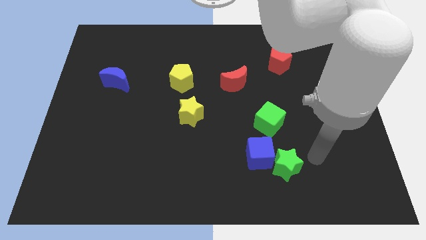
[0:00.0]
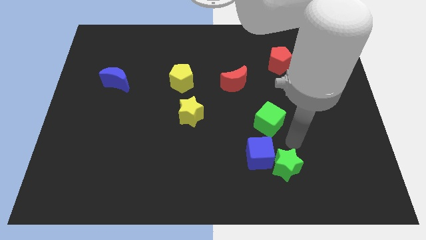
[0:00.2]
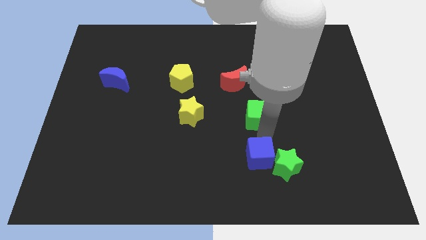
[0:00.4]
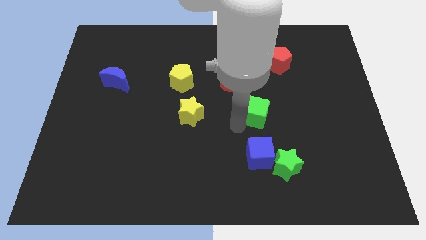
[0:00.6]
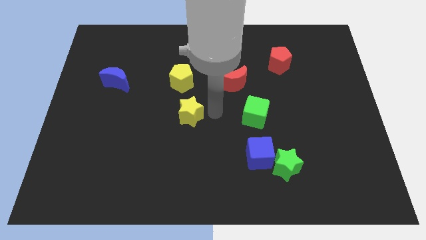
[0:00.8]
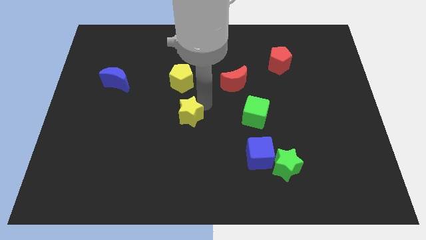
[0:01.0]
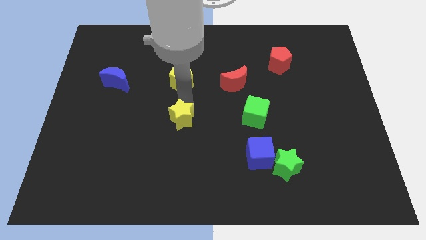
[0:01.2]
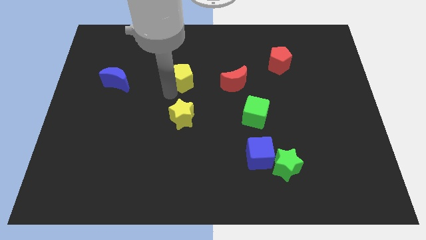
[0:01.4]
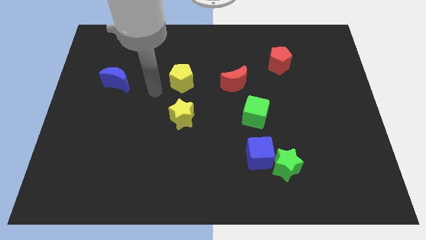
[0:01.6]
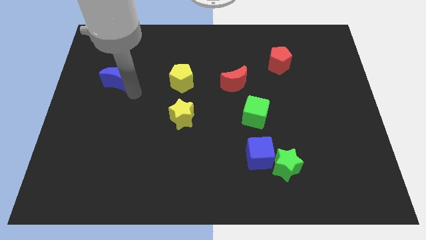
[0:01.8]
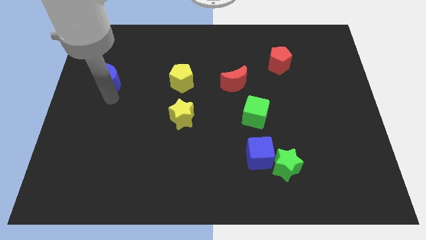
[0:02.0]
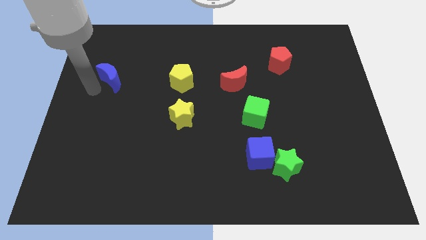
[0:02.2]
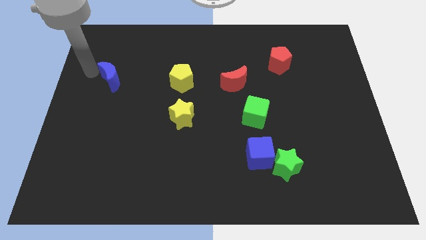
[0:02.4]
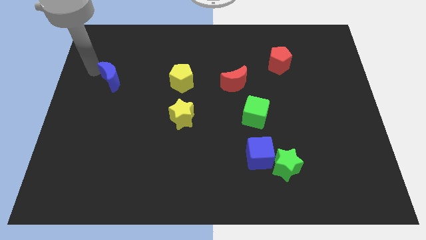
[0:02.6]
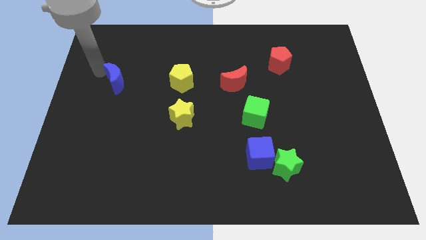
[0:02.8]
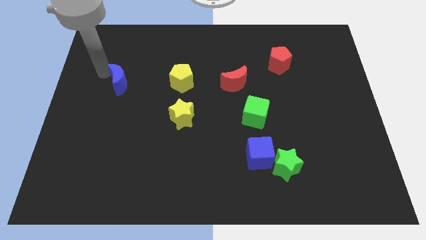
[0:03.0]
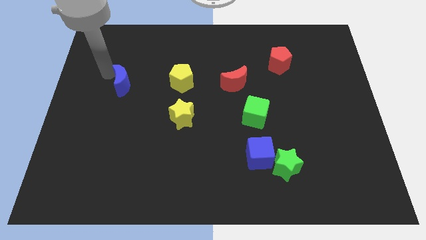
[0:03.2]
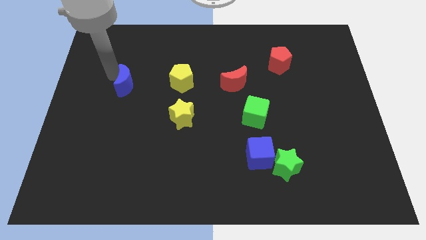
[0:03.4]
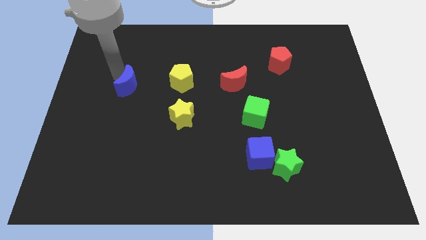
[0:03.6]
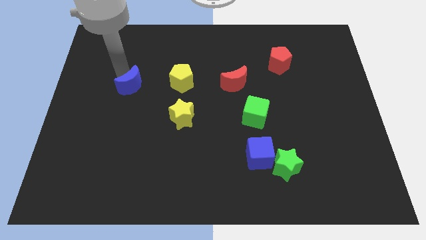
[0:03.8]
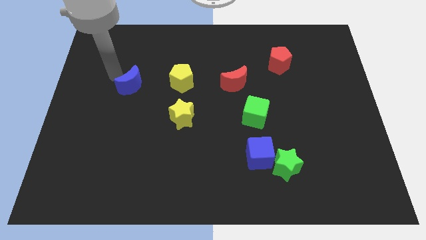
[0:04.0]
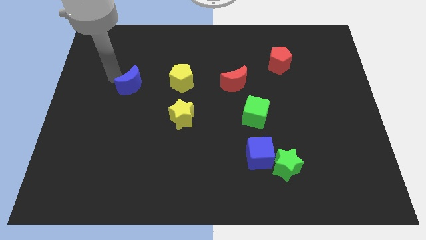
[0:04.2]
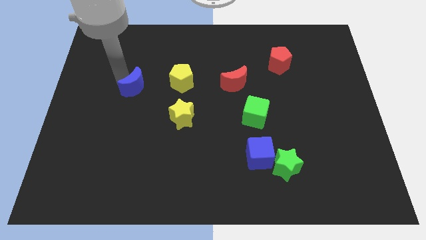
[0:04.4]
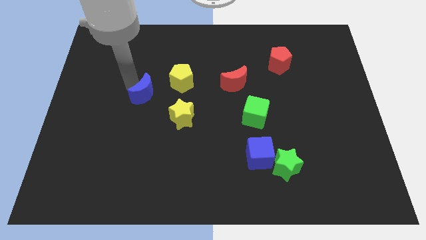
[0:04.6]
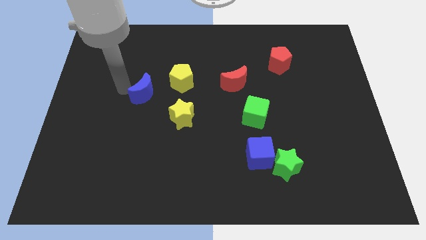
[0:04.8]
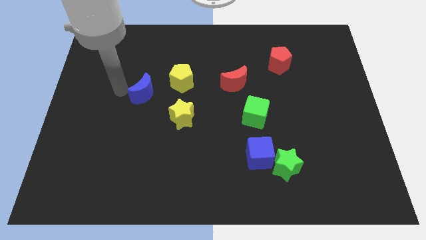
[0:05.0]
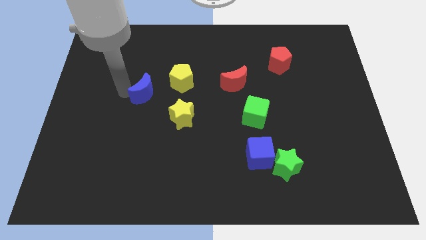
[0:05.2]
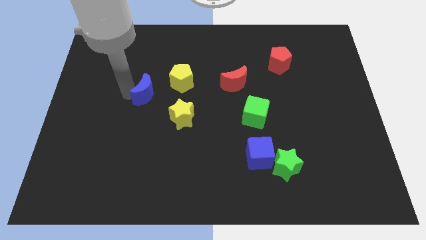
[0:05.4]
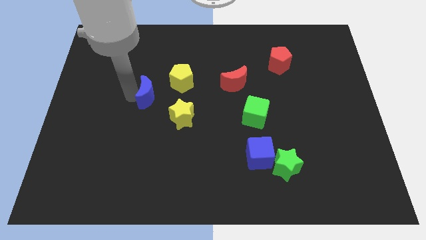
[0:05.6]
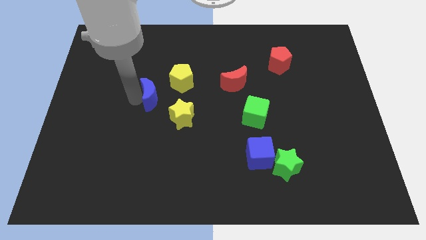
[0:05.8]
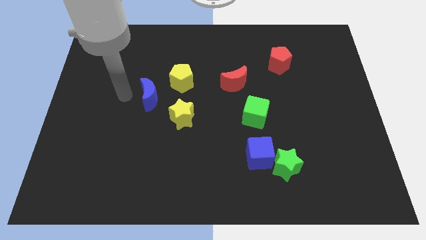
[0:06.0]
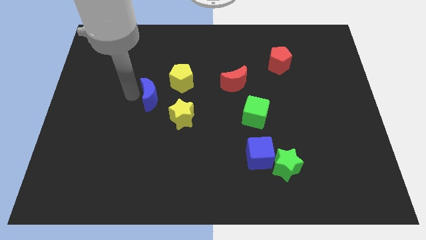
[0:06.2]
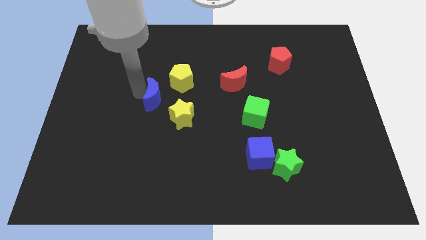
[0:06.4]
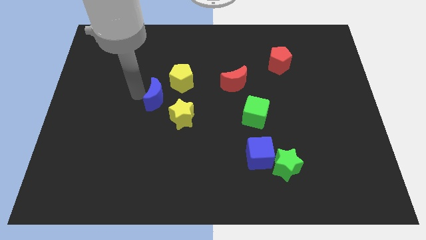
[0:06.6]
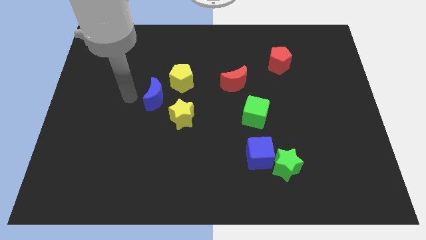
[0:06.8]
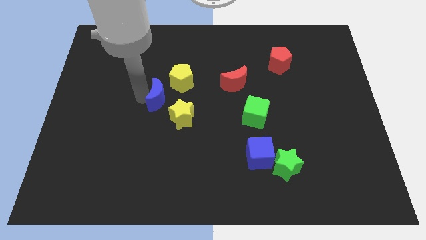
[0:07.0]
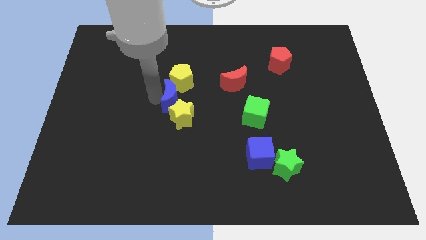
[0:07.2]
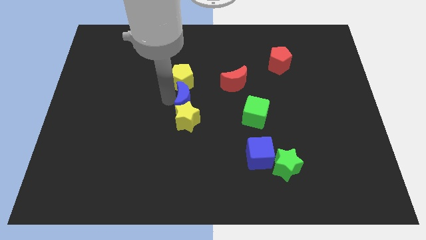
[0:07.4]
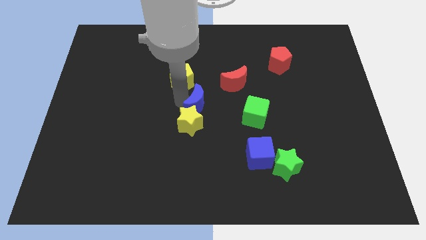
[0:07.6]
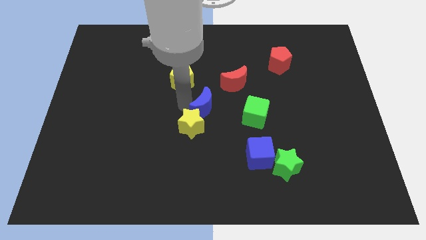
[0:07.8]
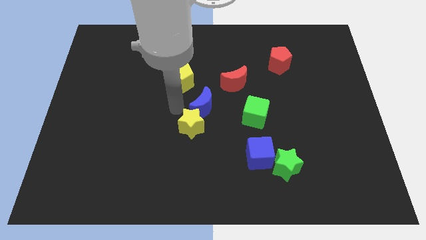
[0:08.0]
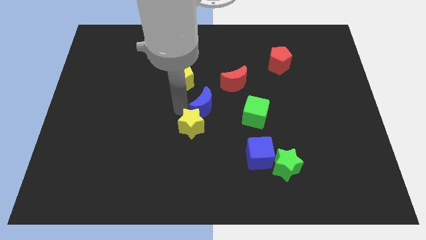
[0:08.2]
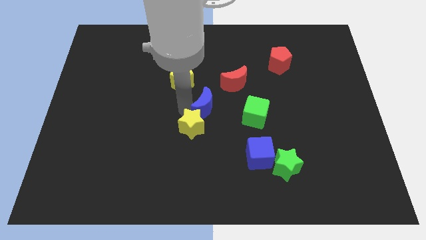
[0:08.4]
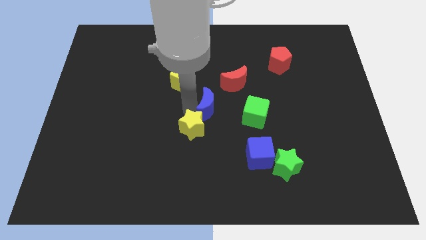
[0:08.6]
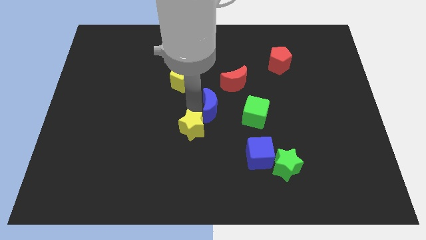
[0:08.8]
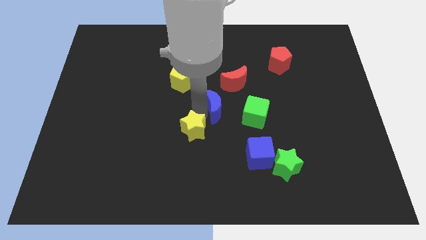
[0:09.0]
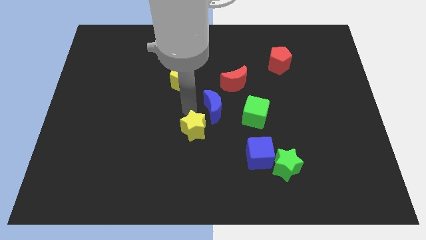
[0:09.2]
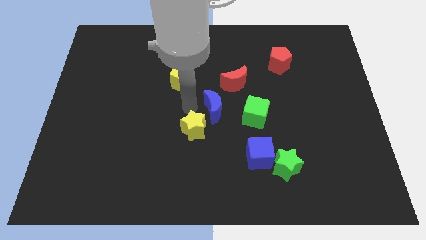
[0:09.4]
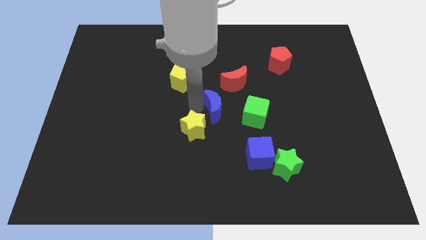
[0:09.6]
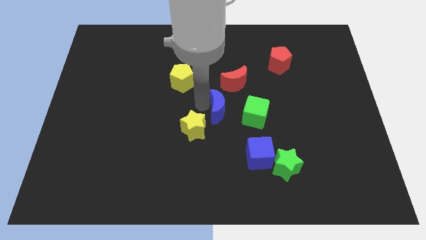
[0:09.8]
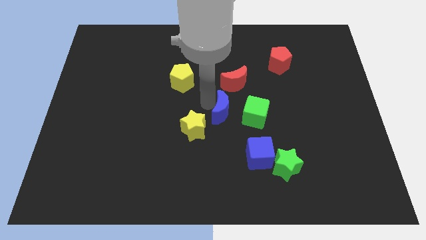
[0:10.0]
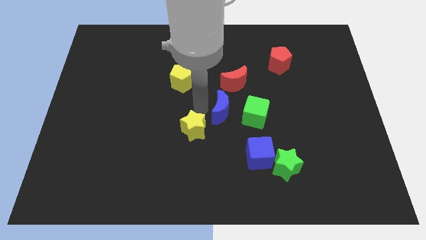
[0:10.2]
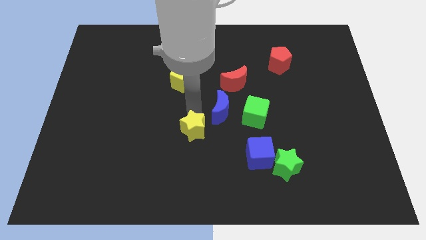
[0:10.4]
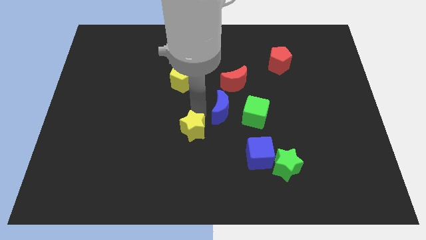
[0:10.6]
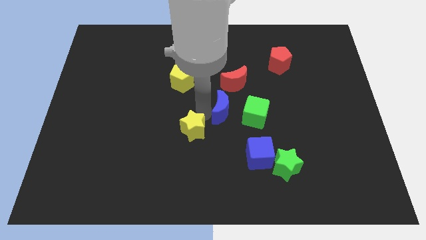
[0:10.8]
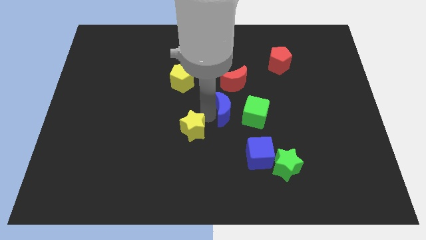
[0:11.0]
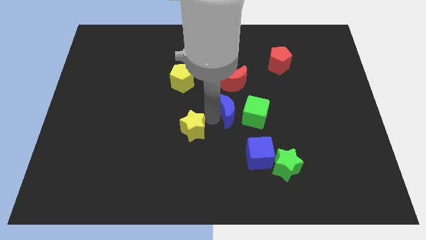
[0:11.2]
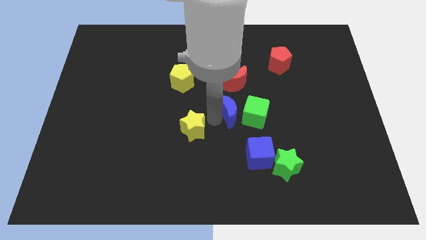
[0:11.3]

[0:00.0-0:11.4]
push the blue moon close to the green cube

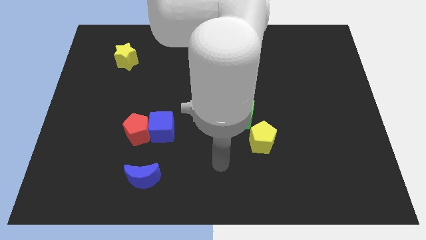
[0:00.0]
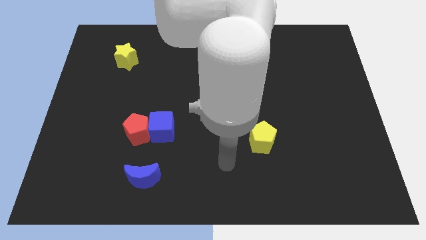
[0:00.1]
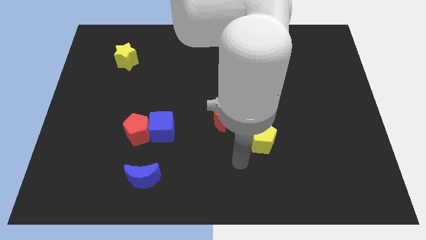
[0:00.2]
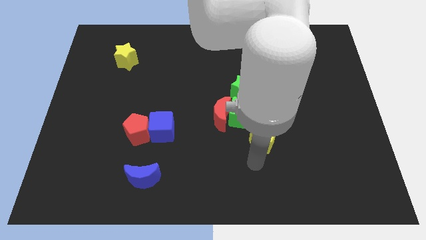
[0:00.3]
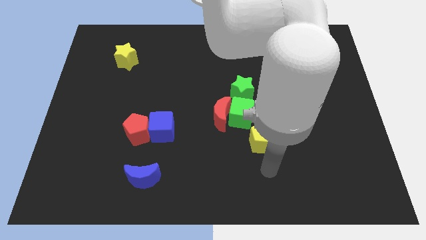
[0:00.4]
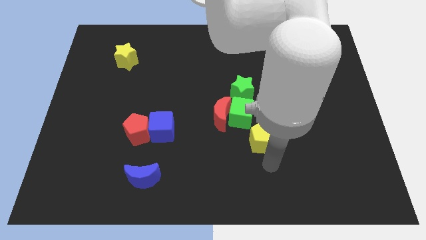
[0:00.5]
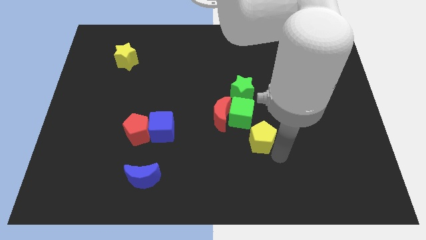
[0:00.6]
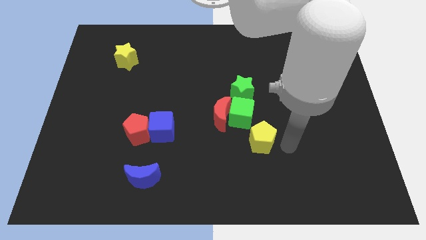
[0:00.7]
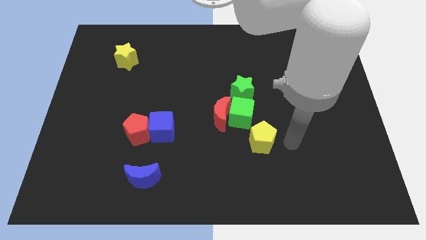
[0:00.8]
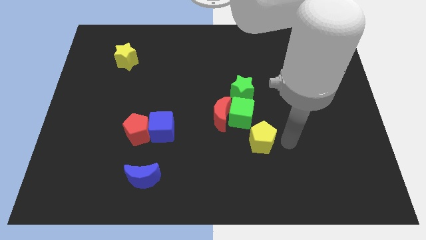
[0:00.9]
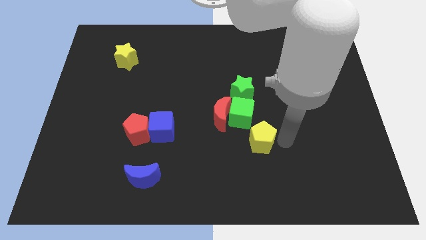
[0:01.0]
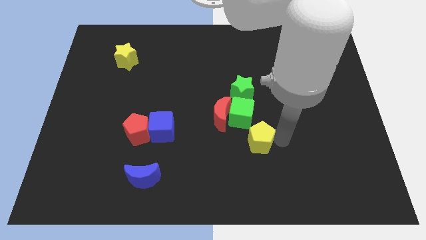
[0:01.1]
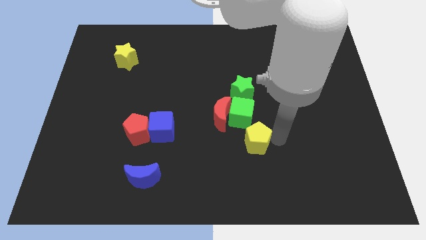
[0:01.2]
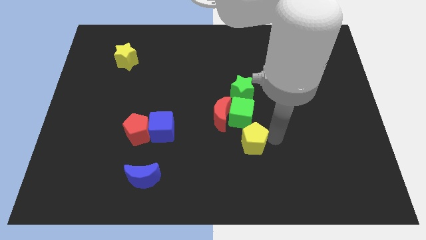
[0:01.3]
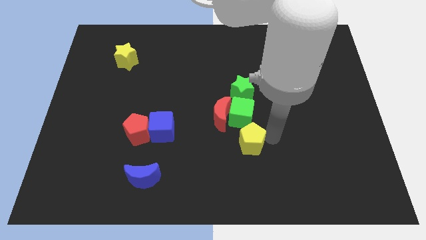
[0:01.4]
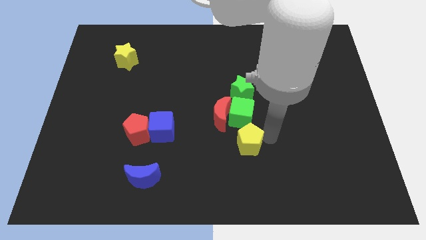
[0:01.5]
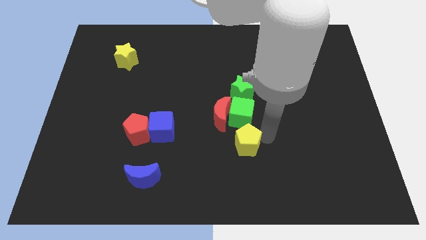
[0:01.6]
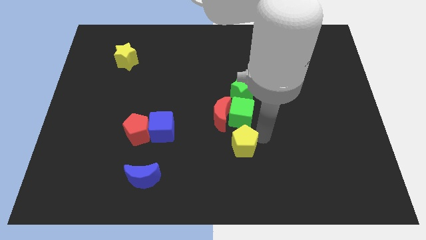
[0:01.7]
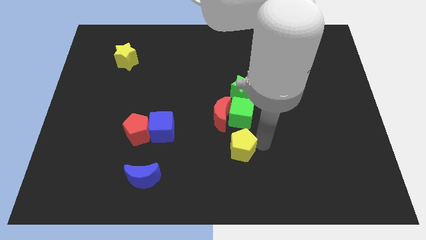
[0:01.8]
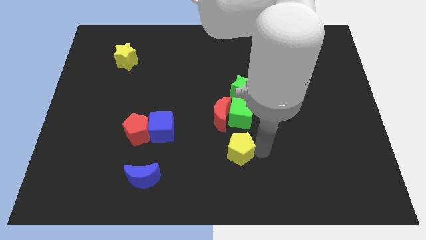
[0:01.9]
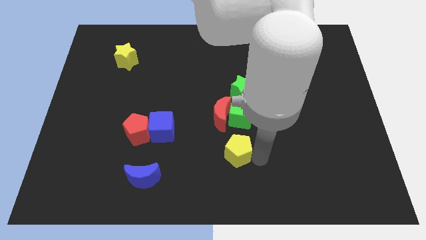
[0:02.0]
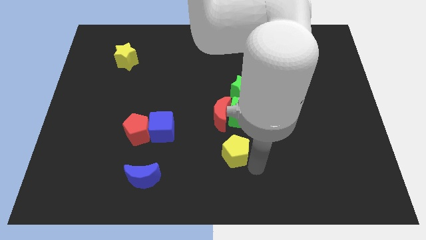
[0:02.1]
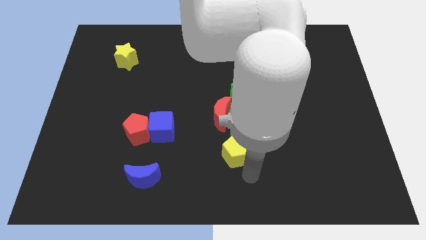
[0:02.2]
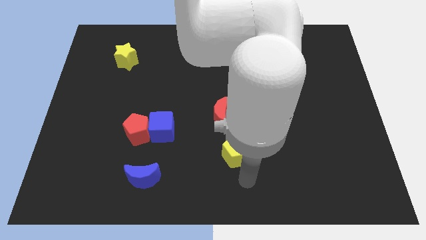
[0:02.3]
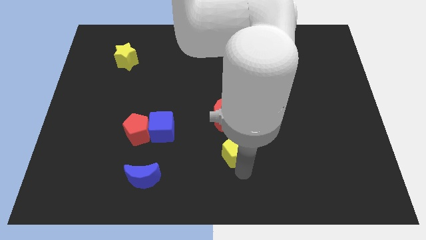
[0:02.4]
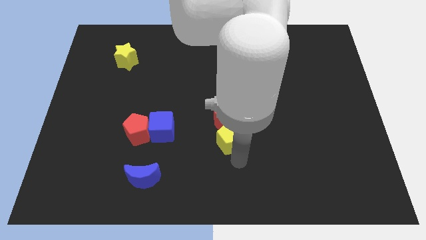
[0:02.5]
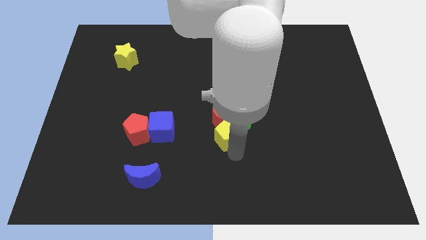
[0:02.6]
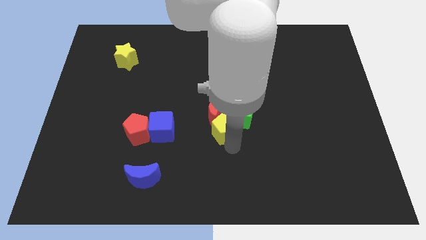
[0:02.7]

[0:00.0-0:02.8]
move the yellow pentagon close to the red moon
